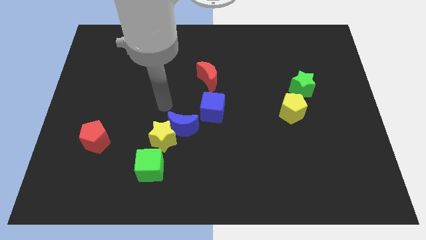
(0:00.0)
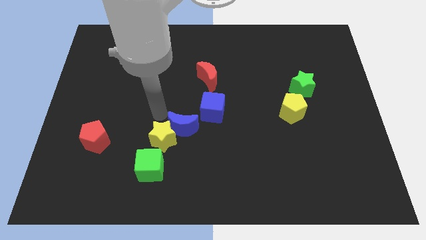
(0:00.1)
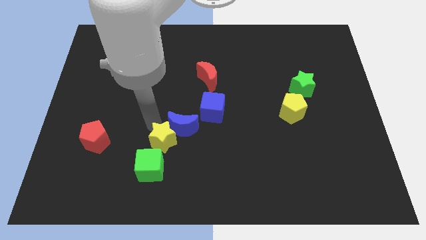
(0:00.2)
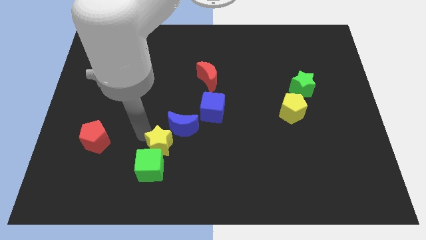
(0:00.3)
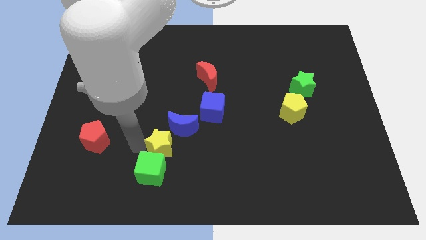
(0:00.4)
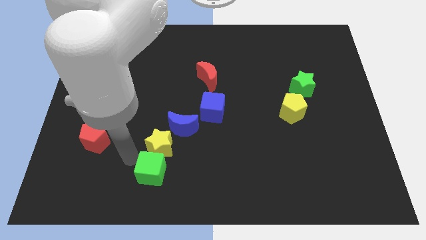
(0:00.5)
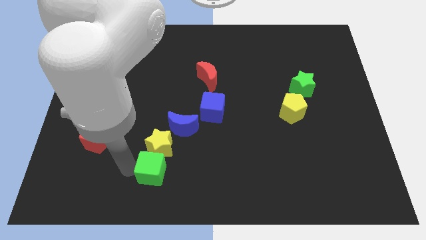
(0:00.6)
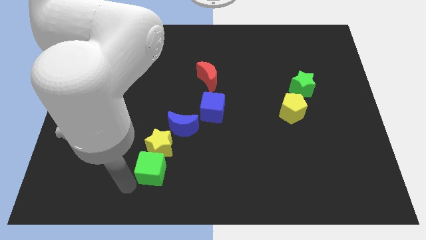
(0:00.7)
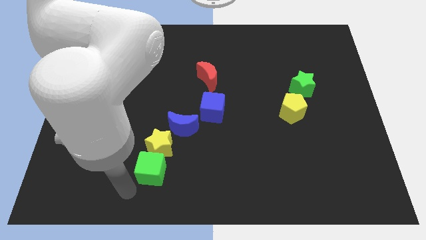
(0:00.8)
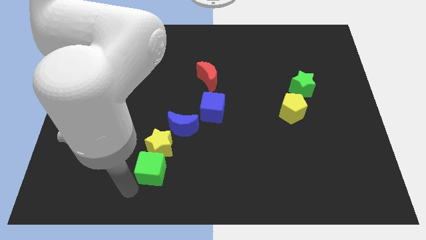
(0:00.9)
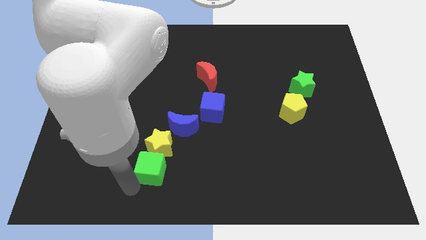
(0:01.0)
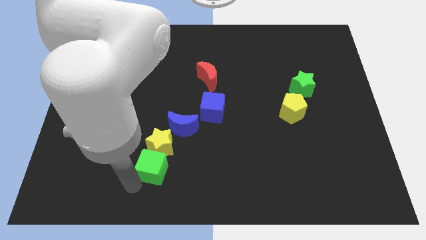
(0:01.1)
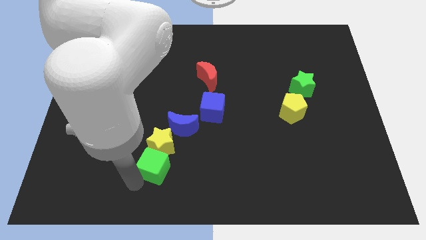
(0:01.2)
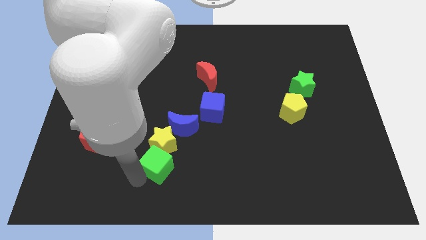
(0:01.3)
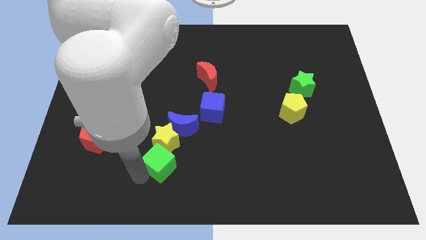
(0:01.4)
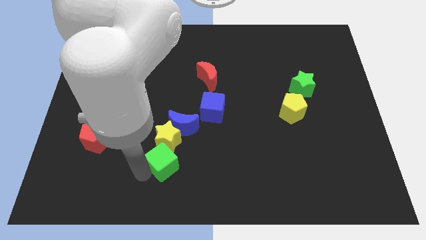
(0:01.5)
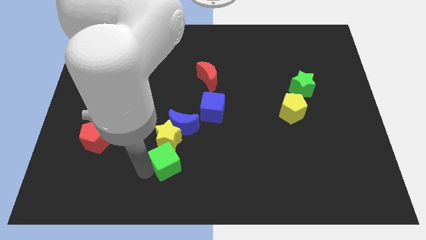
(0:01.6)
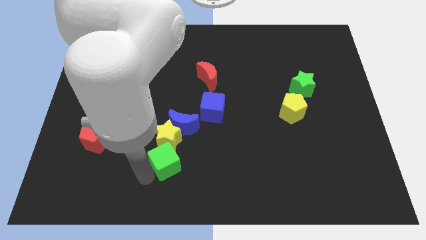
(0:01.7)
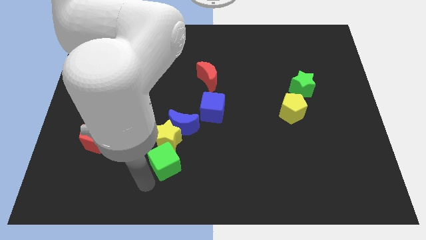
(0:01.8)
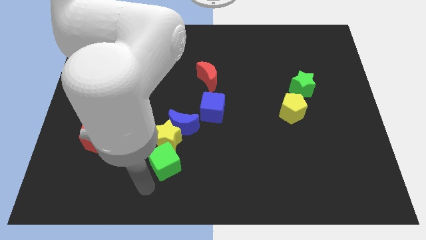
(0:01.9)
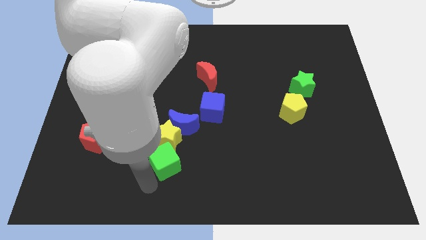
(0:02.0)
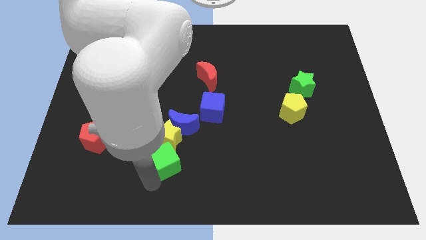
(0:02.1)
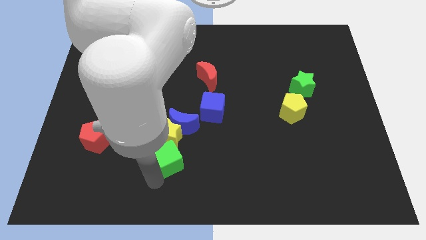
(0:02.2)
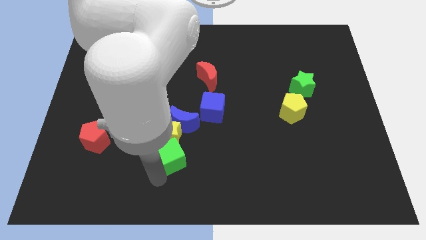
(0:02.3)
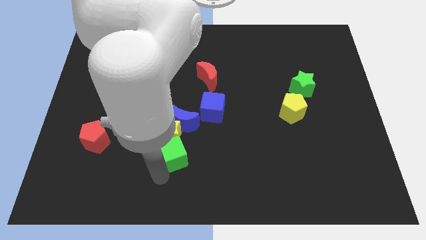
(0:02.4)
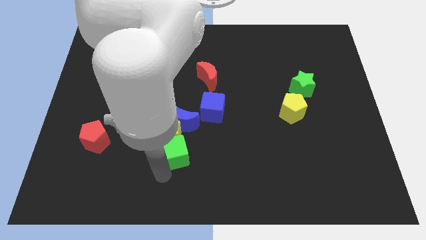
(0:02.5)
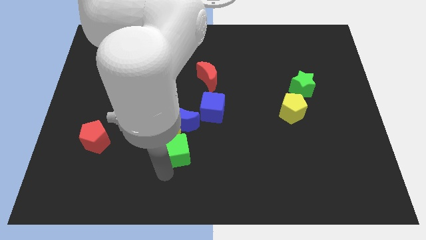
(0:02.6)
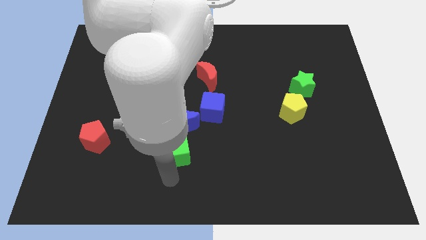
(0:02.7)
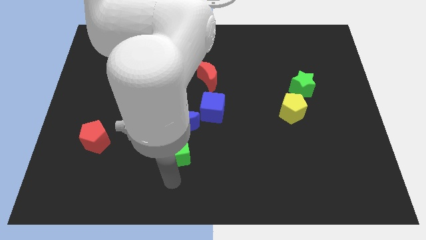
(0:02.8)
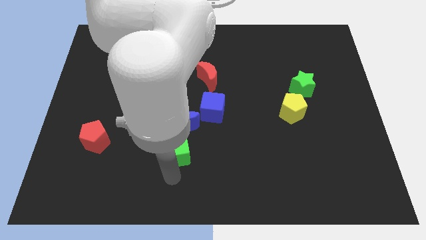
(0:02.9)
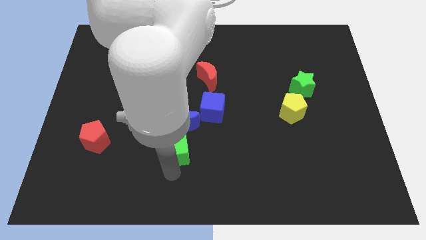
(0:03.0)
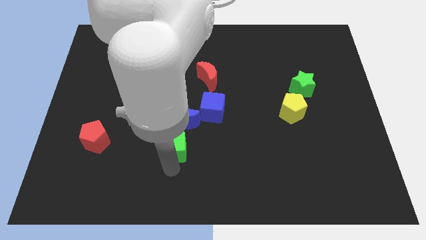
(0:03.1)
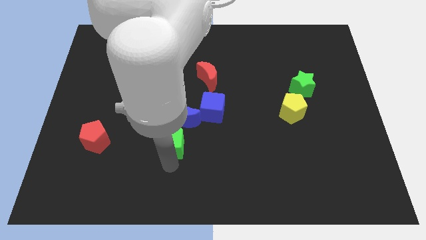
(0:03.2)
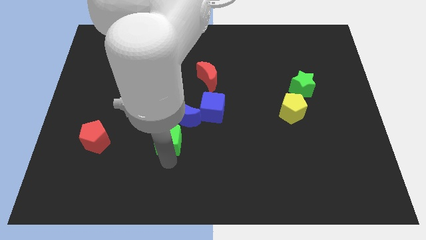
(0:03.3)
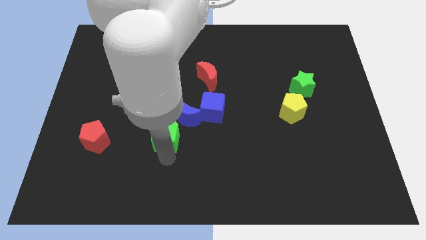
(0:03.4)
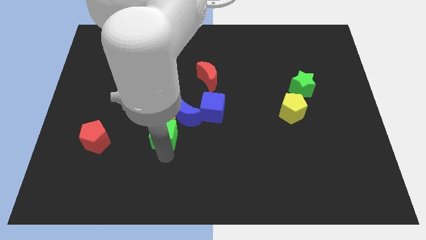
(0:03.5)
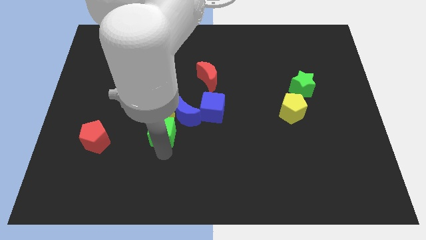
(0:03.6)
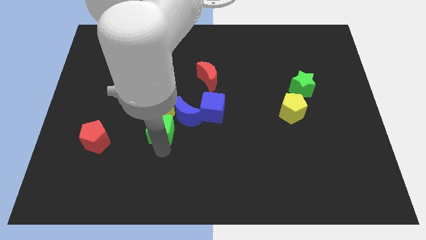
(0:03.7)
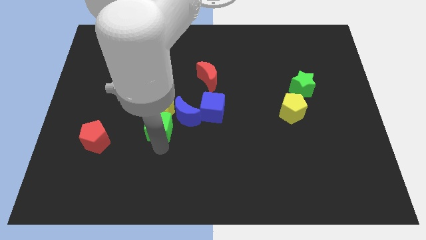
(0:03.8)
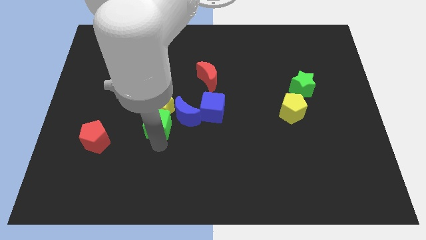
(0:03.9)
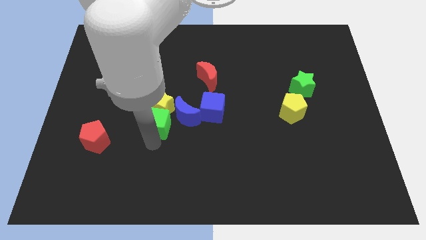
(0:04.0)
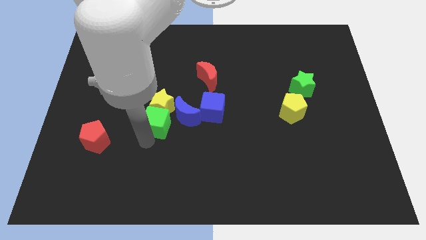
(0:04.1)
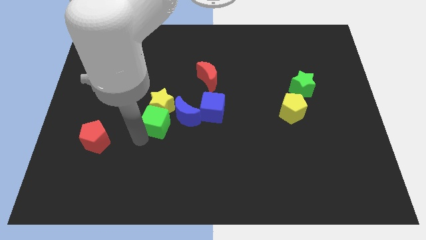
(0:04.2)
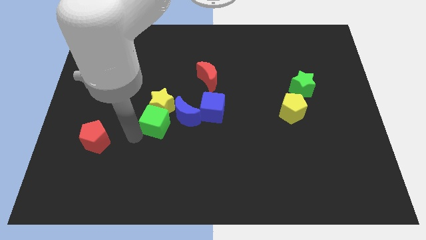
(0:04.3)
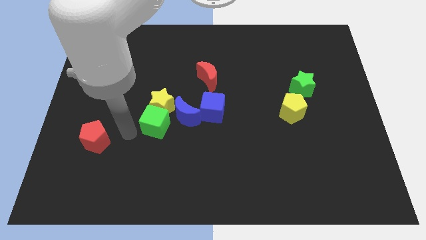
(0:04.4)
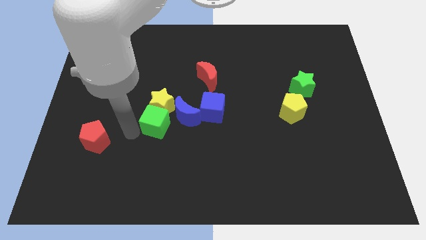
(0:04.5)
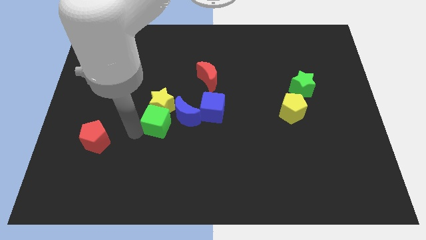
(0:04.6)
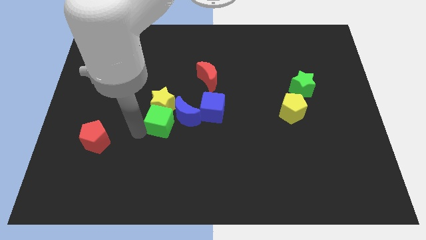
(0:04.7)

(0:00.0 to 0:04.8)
put the green cube next to the blue moon

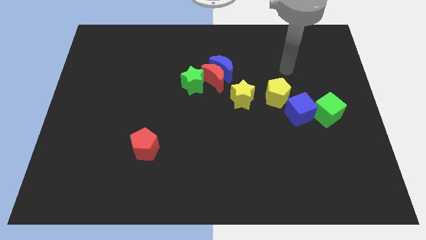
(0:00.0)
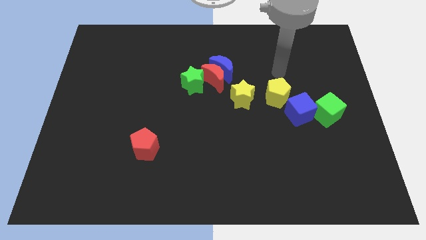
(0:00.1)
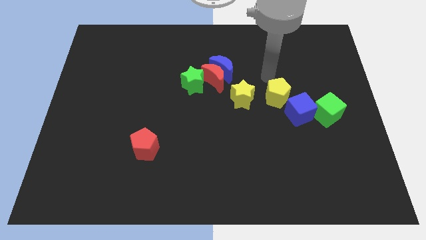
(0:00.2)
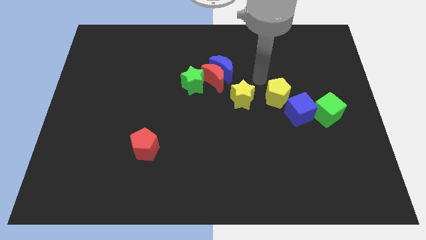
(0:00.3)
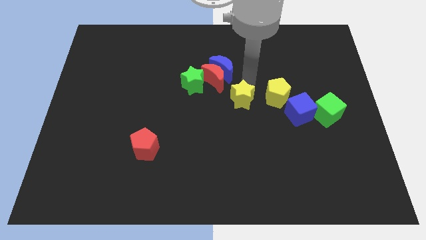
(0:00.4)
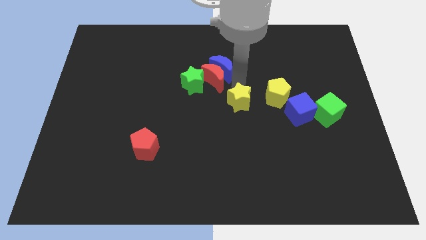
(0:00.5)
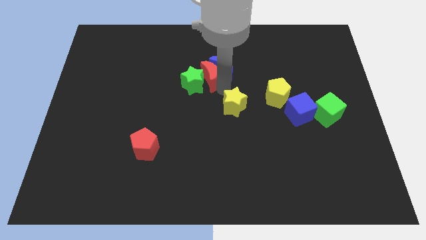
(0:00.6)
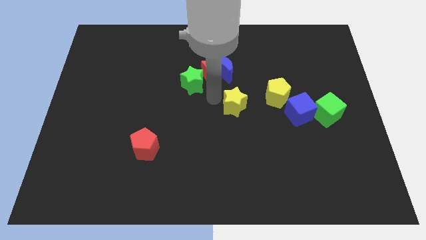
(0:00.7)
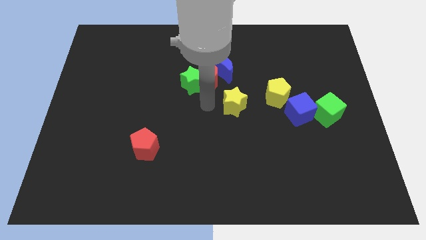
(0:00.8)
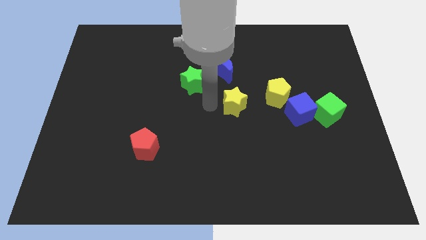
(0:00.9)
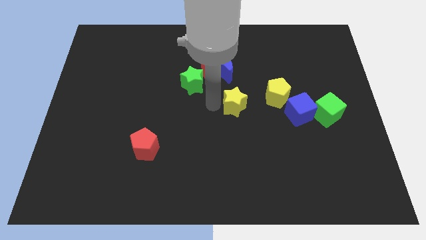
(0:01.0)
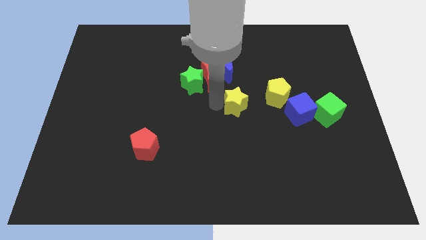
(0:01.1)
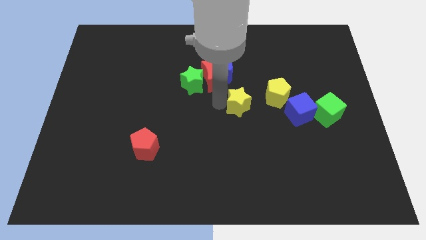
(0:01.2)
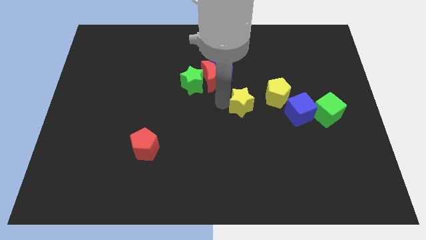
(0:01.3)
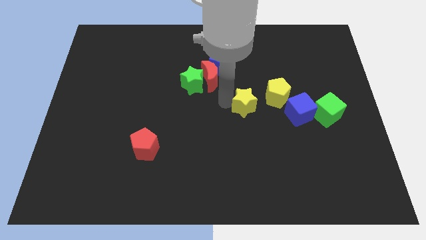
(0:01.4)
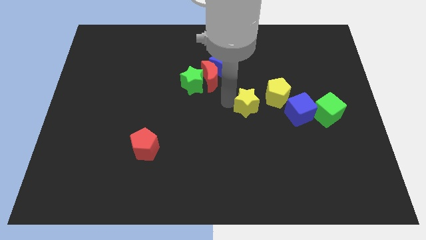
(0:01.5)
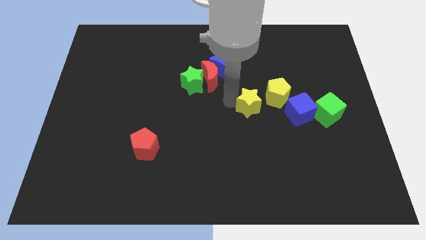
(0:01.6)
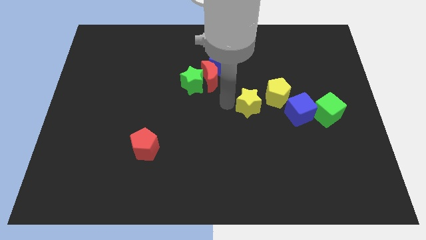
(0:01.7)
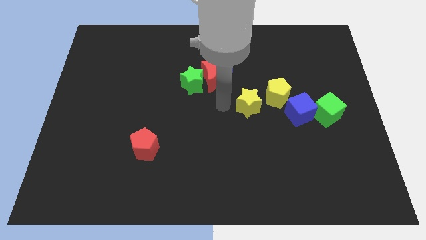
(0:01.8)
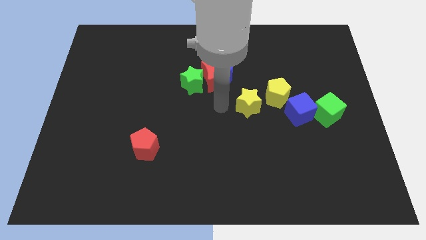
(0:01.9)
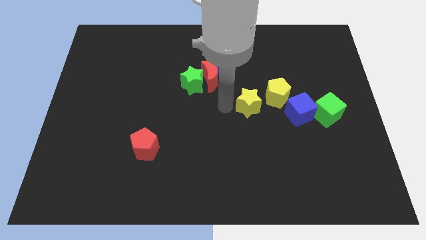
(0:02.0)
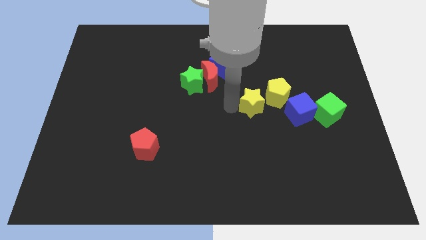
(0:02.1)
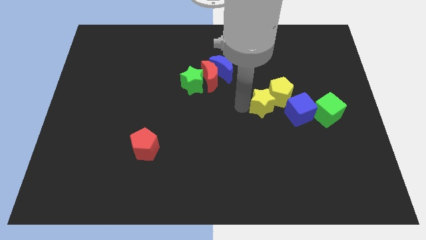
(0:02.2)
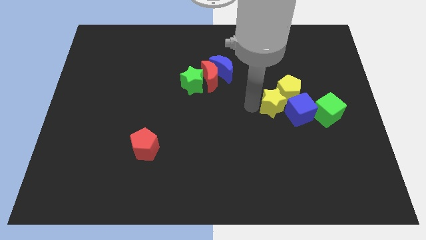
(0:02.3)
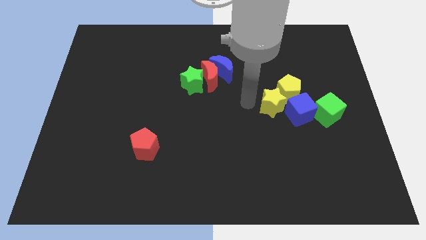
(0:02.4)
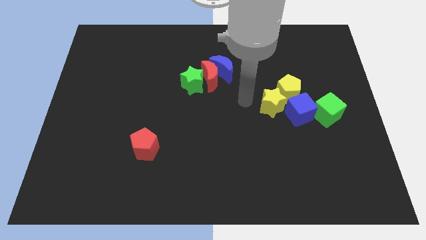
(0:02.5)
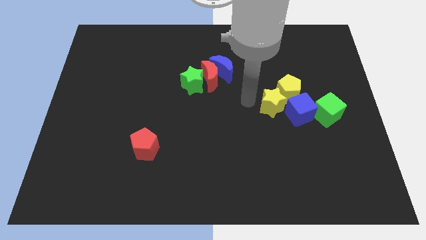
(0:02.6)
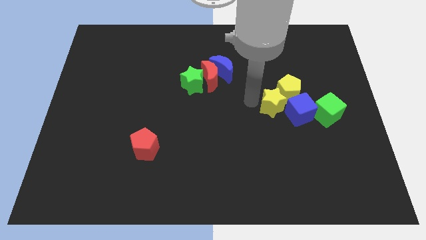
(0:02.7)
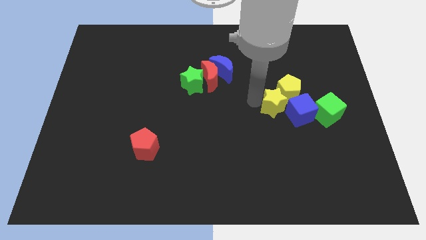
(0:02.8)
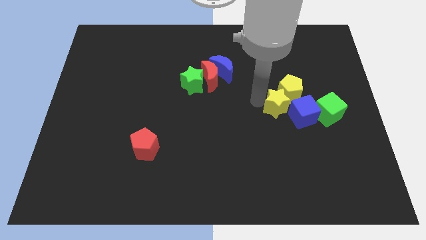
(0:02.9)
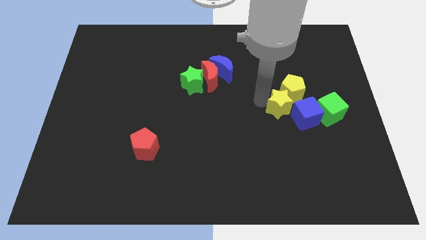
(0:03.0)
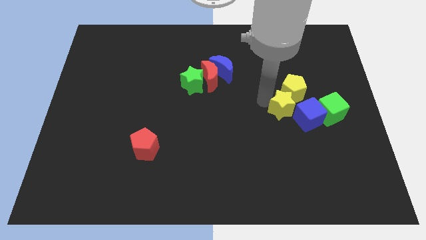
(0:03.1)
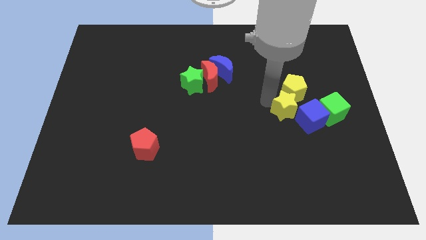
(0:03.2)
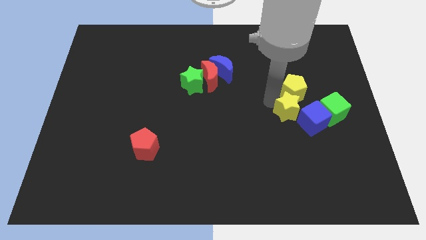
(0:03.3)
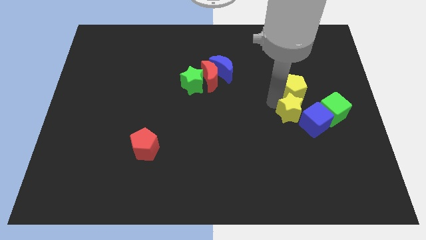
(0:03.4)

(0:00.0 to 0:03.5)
put the yellow star towards the blue cube
